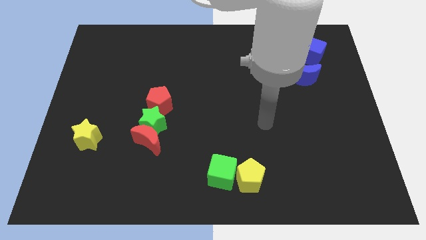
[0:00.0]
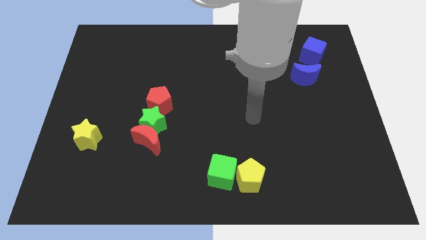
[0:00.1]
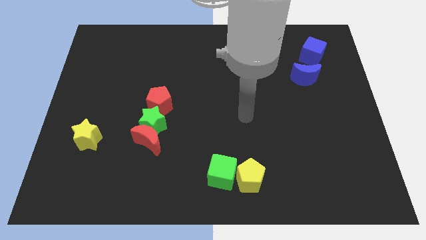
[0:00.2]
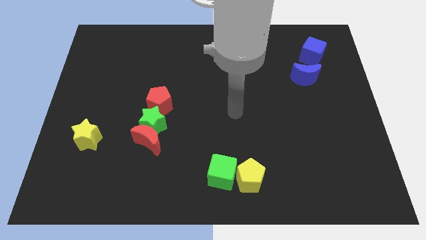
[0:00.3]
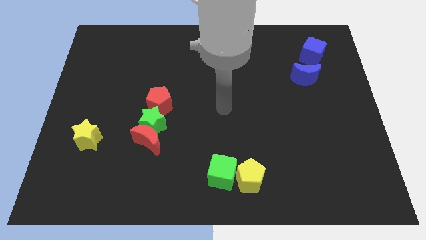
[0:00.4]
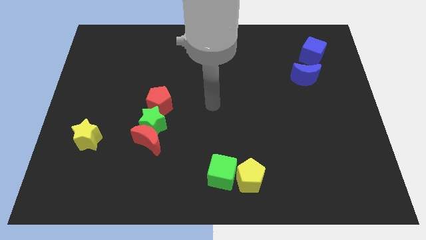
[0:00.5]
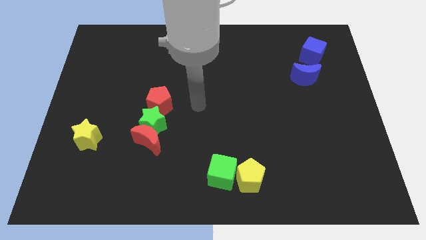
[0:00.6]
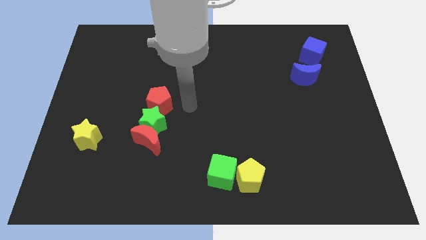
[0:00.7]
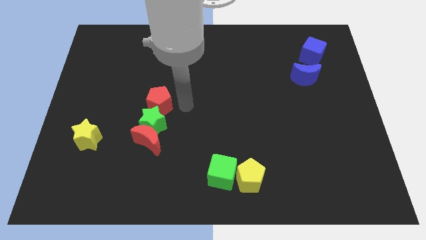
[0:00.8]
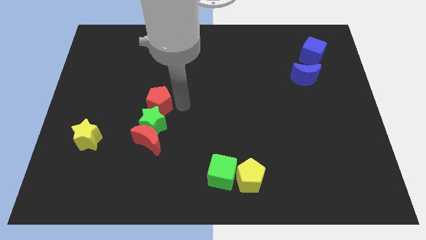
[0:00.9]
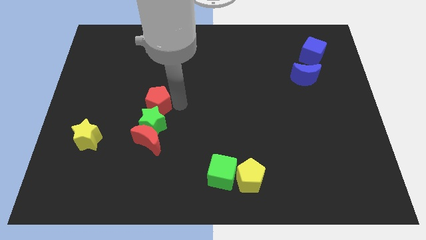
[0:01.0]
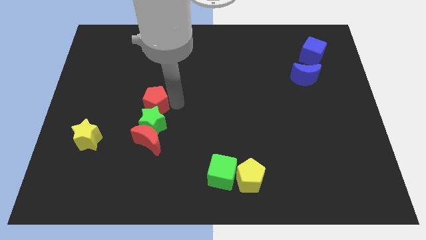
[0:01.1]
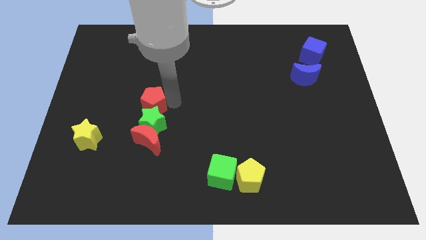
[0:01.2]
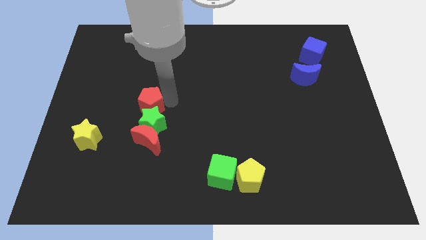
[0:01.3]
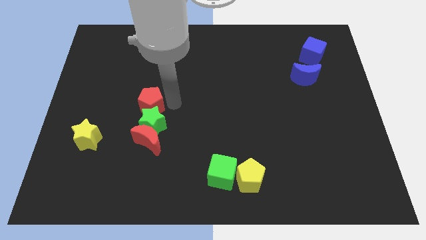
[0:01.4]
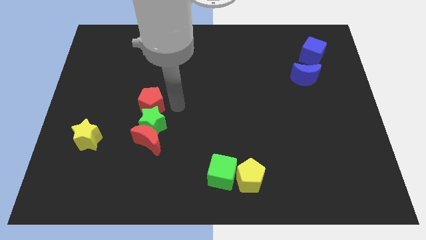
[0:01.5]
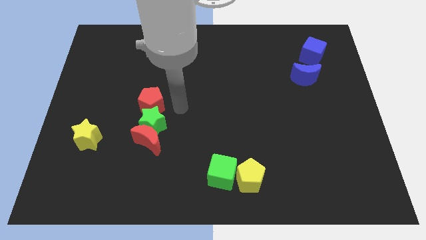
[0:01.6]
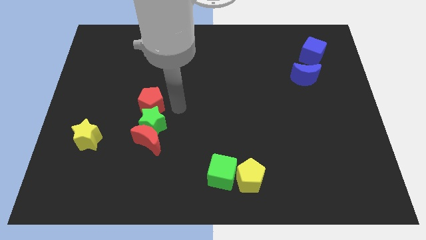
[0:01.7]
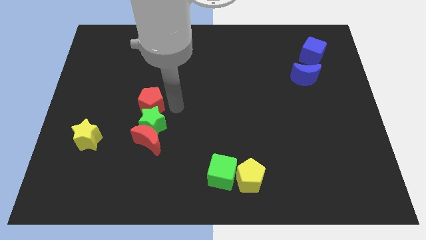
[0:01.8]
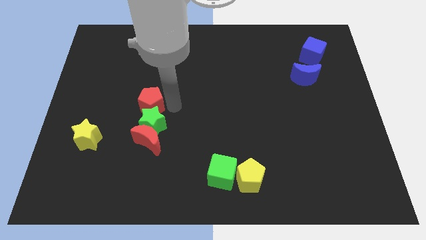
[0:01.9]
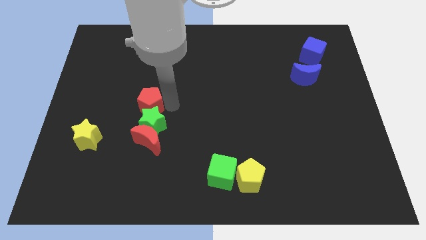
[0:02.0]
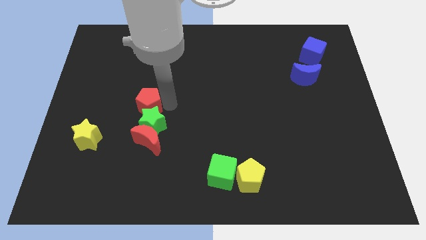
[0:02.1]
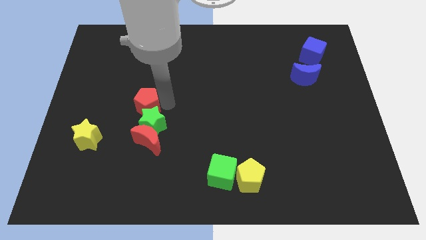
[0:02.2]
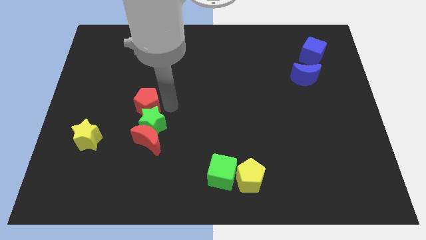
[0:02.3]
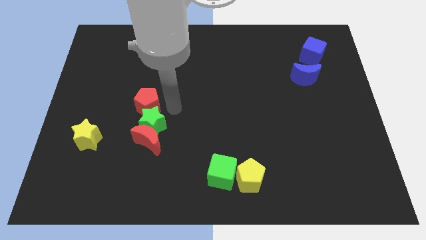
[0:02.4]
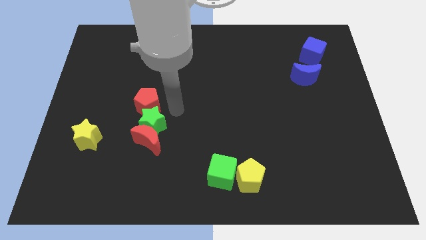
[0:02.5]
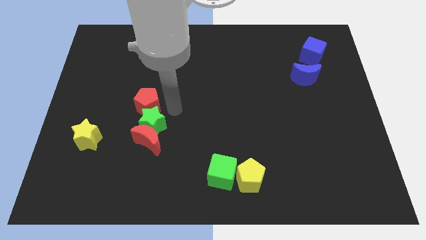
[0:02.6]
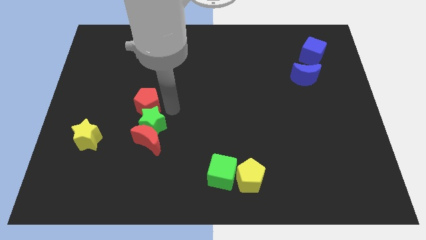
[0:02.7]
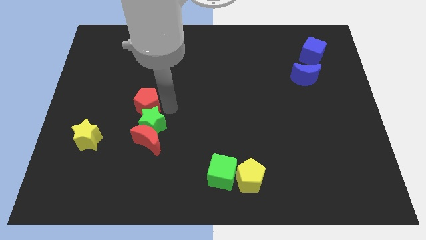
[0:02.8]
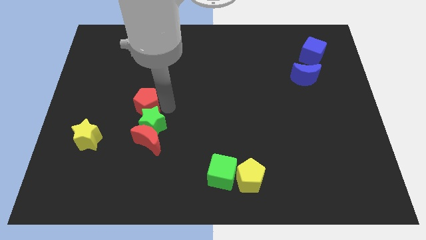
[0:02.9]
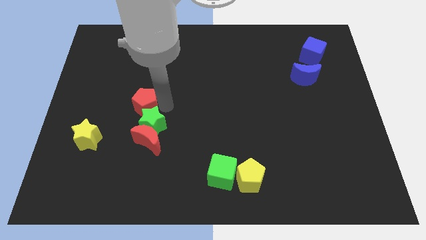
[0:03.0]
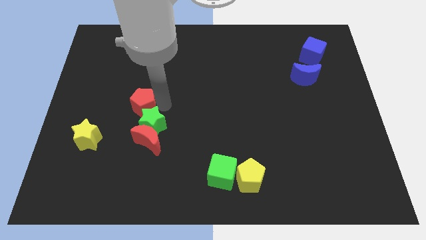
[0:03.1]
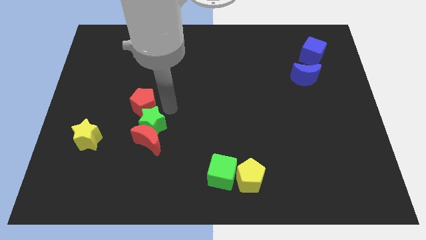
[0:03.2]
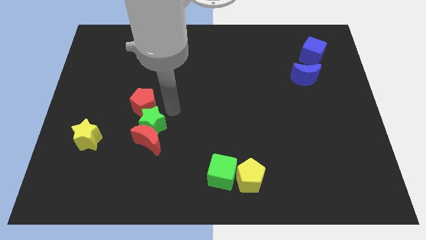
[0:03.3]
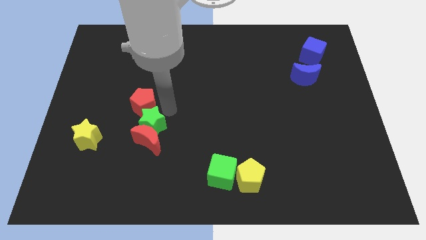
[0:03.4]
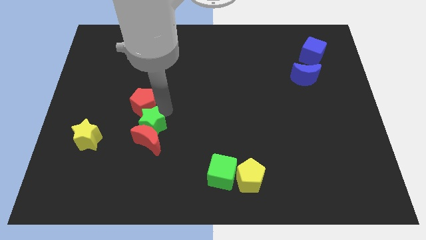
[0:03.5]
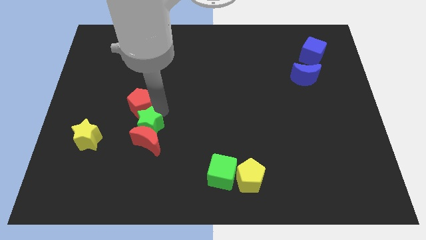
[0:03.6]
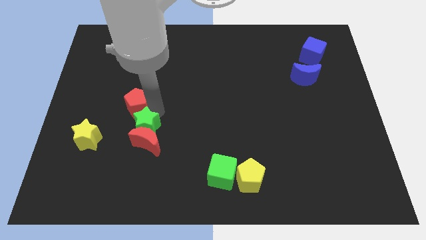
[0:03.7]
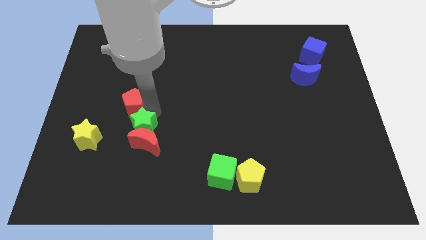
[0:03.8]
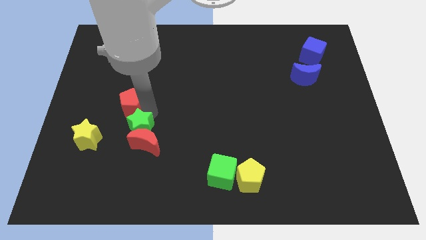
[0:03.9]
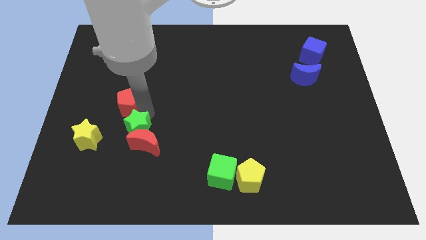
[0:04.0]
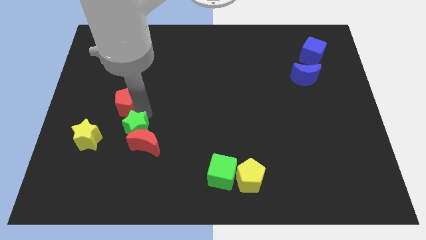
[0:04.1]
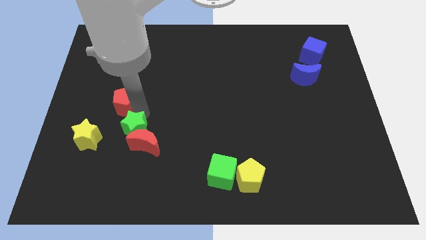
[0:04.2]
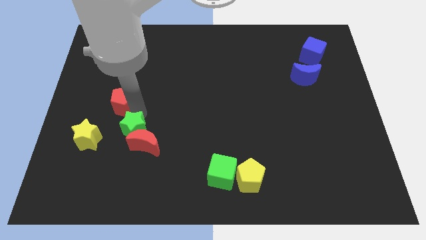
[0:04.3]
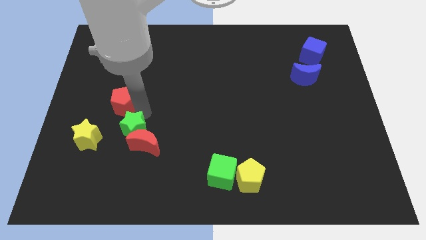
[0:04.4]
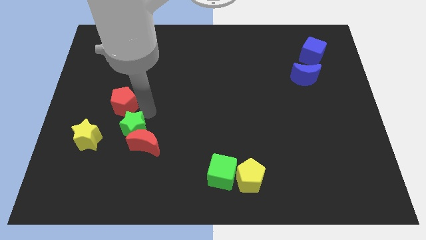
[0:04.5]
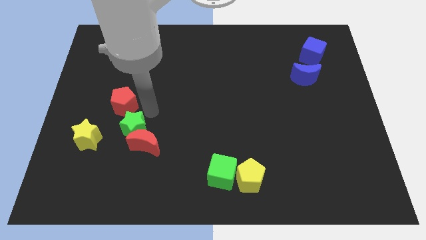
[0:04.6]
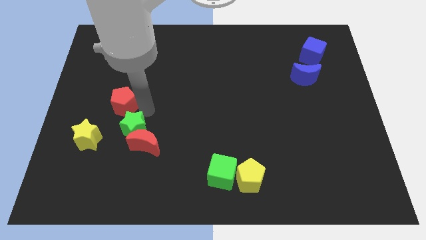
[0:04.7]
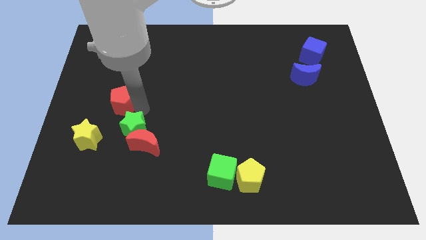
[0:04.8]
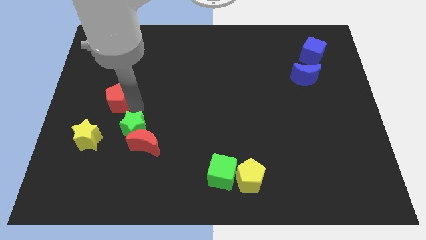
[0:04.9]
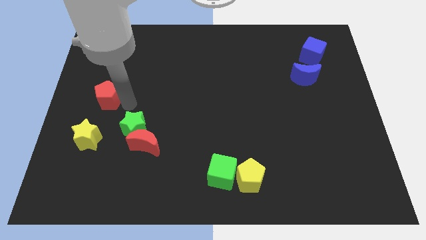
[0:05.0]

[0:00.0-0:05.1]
put the red pentagon to the center left

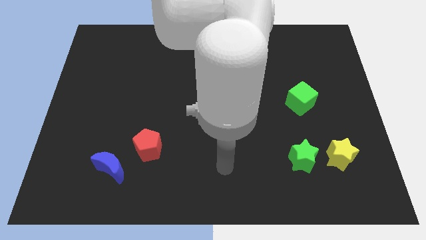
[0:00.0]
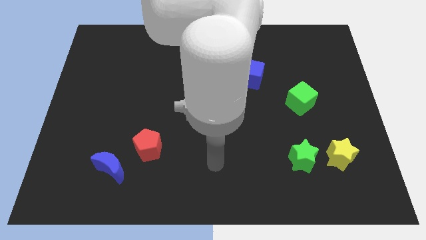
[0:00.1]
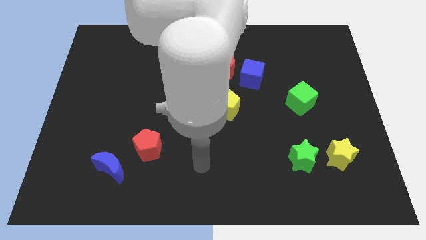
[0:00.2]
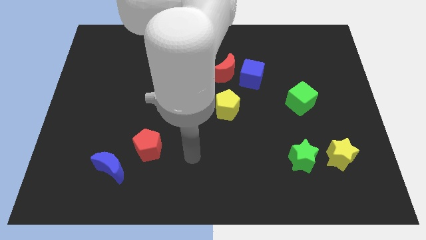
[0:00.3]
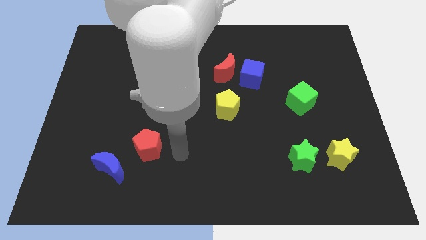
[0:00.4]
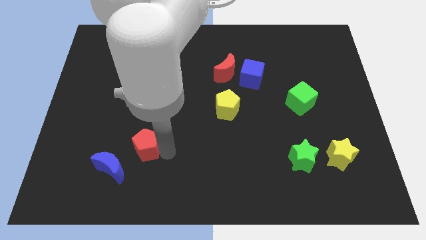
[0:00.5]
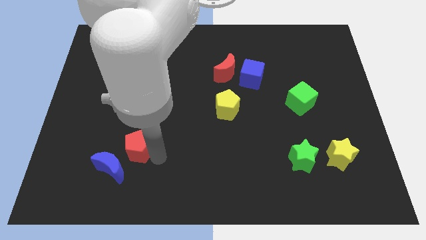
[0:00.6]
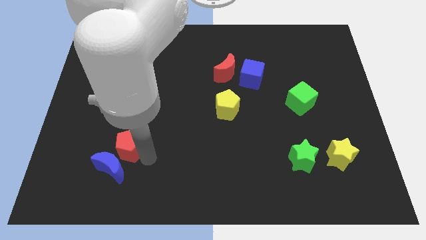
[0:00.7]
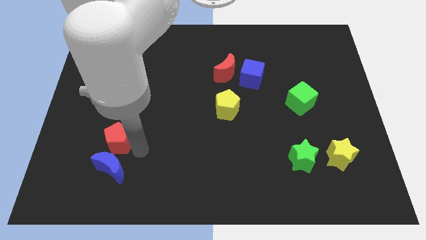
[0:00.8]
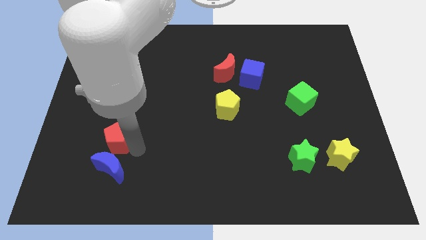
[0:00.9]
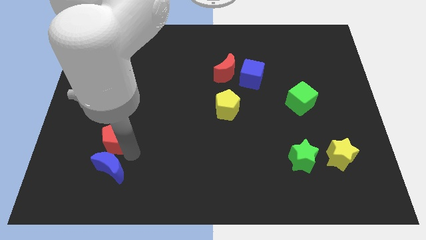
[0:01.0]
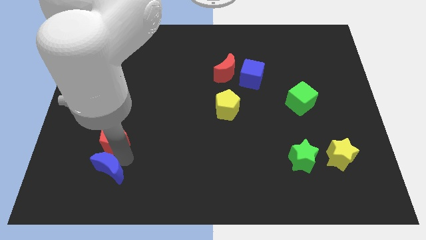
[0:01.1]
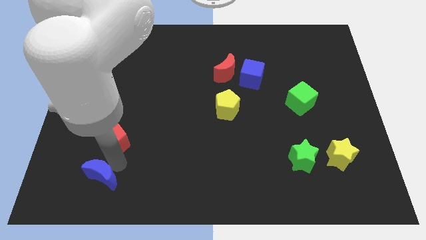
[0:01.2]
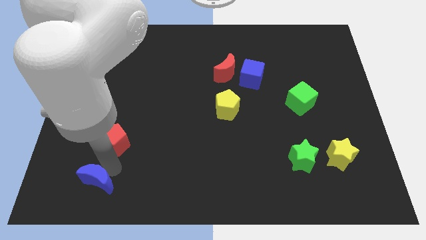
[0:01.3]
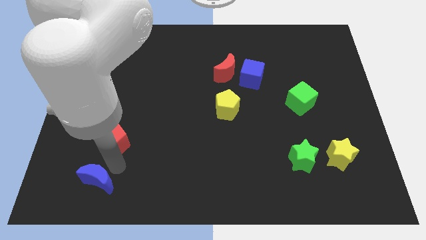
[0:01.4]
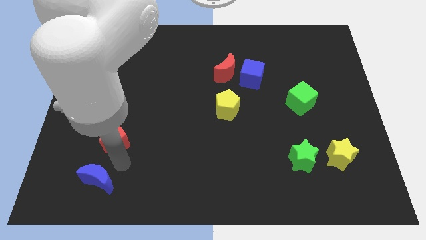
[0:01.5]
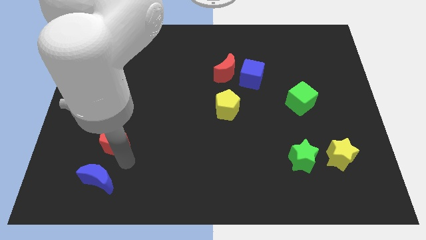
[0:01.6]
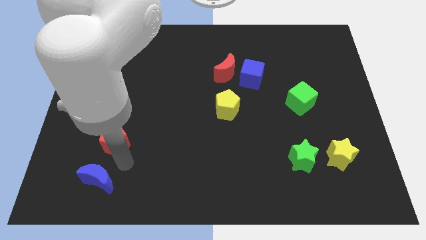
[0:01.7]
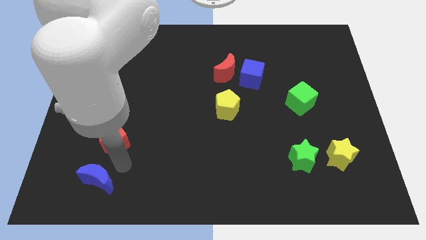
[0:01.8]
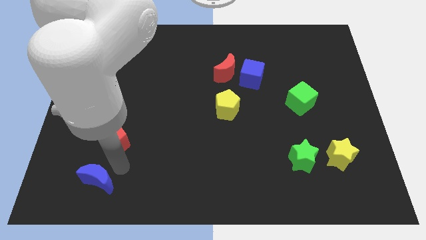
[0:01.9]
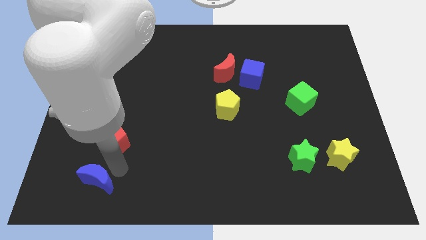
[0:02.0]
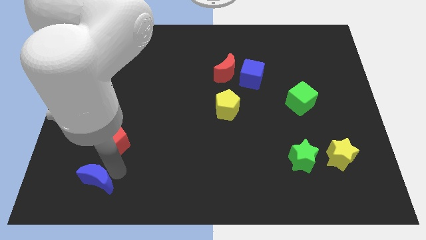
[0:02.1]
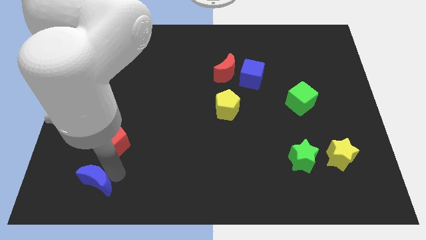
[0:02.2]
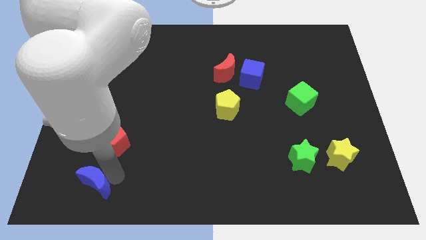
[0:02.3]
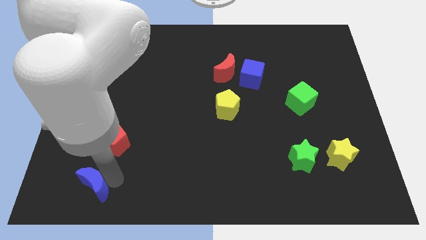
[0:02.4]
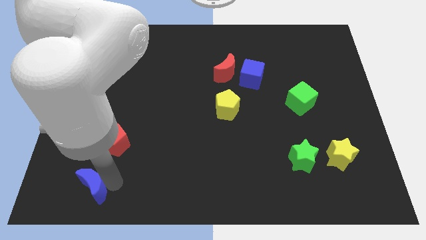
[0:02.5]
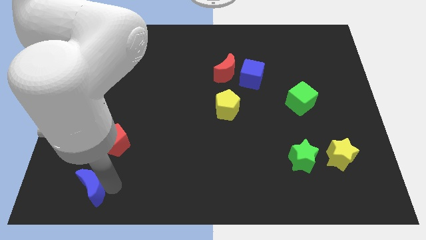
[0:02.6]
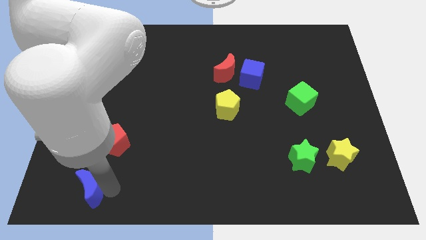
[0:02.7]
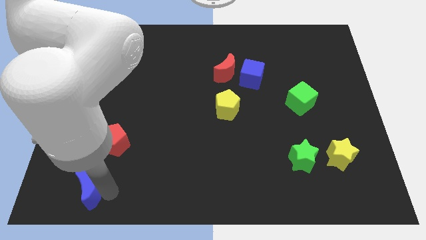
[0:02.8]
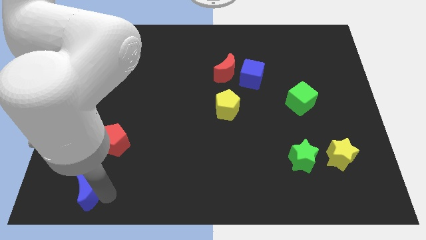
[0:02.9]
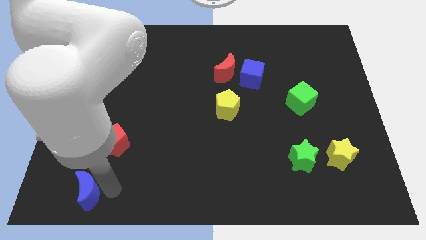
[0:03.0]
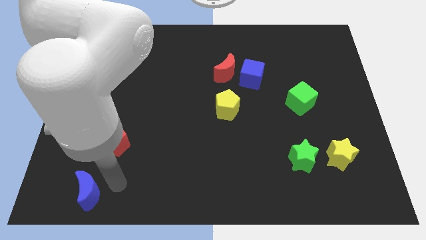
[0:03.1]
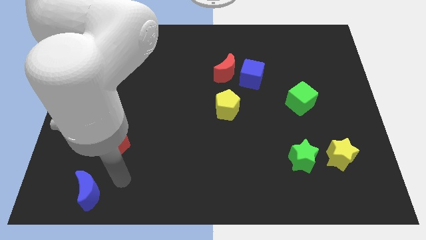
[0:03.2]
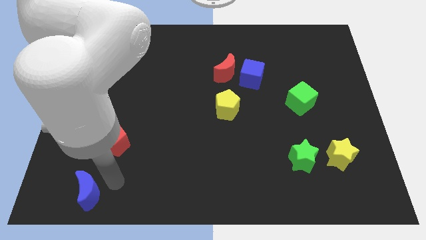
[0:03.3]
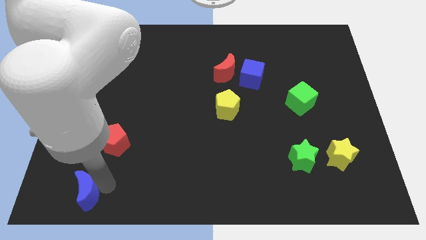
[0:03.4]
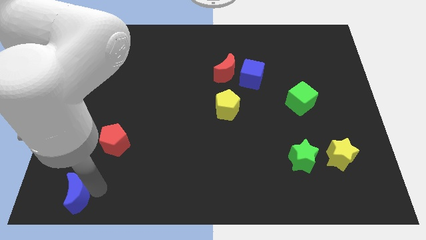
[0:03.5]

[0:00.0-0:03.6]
move the blue moon to the lower left corner
